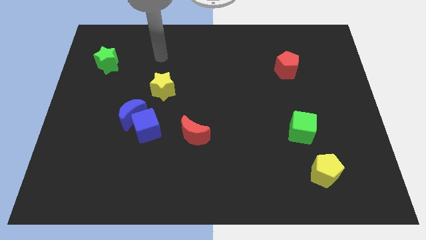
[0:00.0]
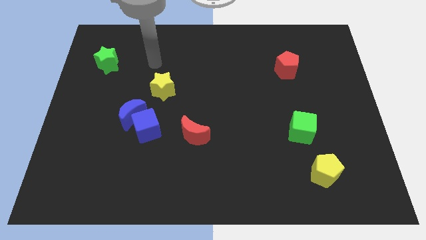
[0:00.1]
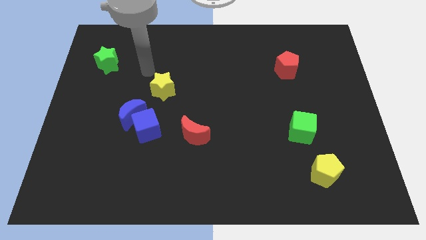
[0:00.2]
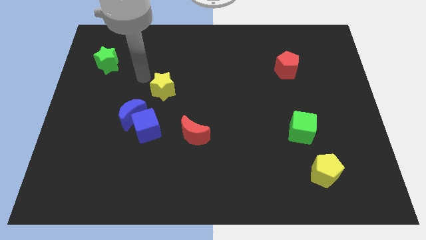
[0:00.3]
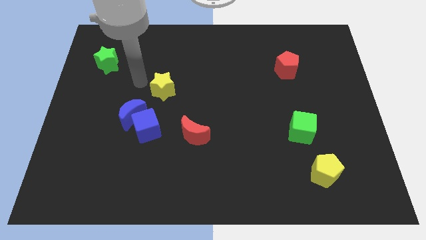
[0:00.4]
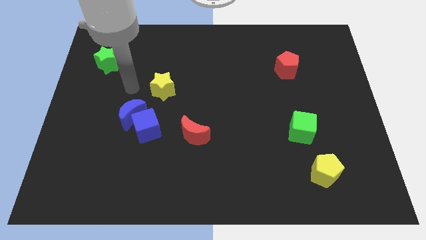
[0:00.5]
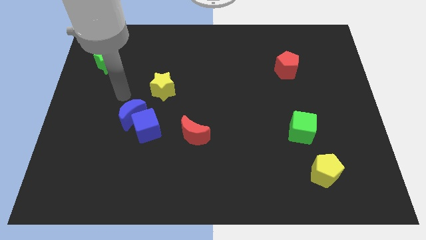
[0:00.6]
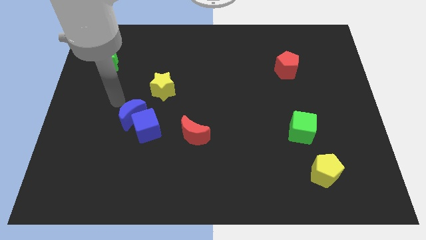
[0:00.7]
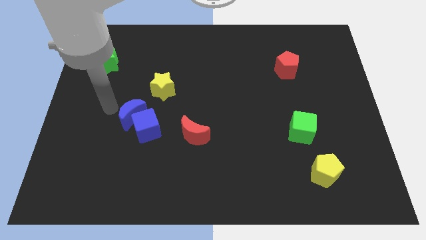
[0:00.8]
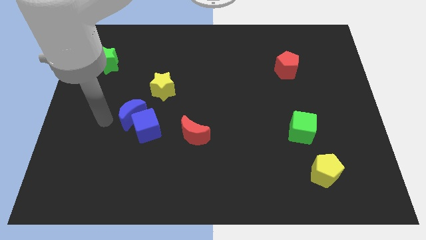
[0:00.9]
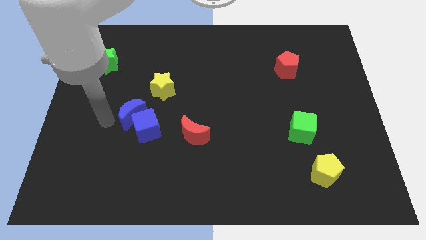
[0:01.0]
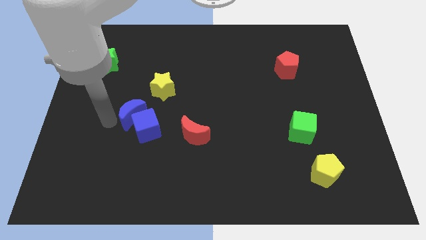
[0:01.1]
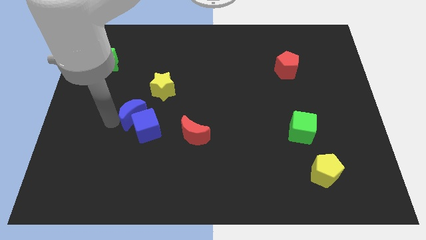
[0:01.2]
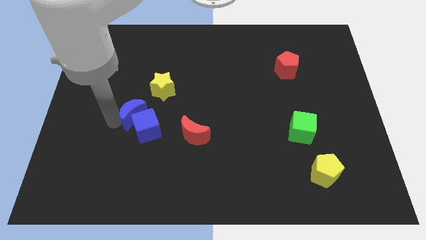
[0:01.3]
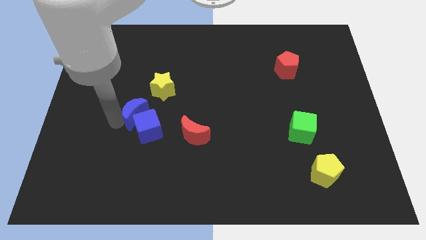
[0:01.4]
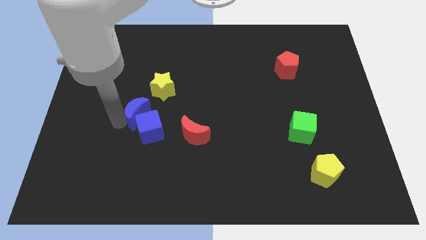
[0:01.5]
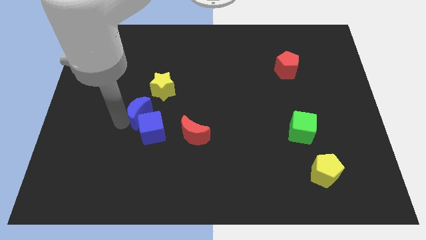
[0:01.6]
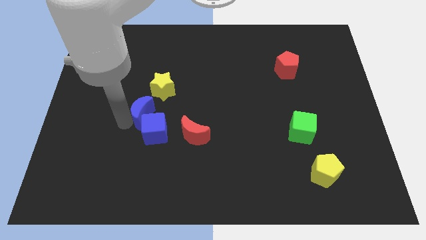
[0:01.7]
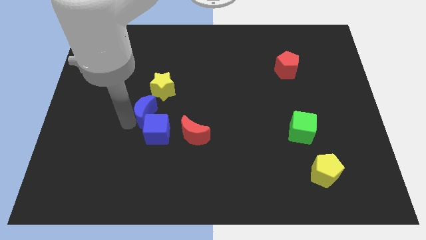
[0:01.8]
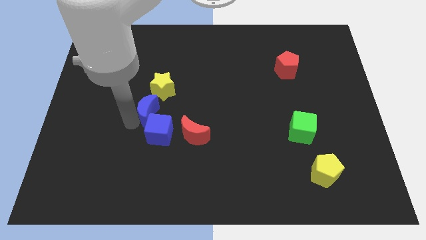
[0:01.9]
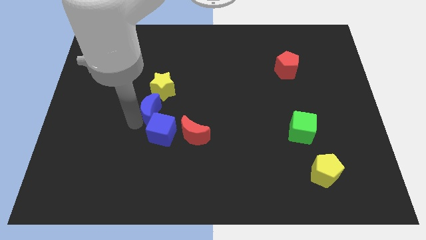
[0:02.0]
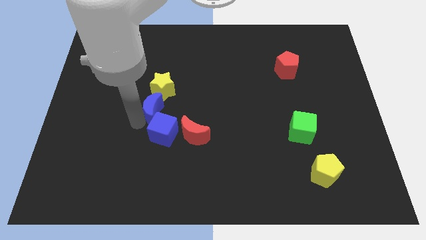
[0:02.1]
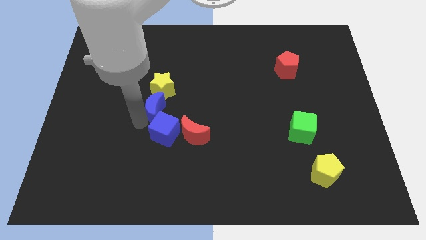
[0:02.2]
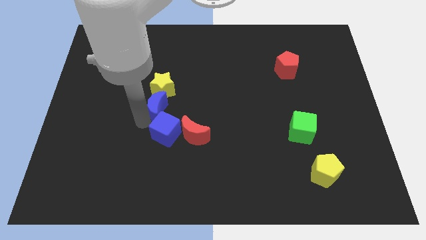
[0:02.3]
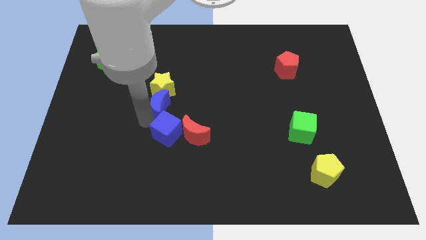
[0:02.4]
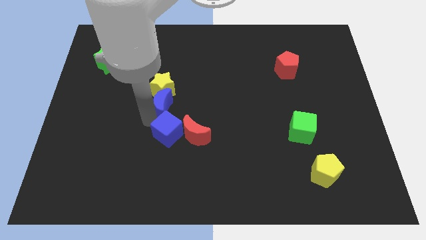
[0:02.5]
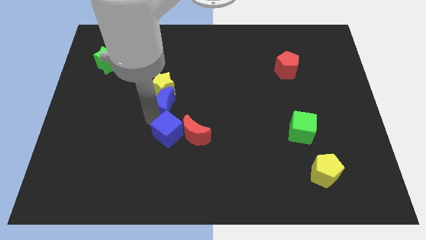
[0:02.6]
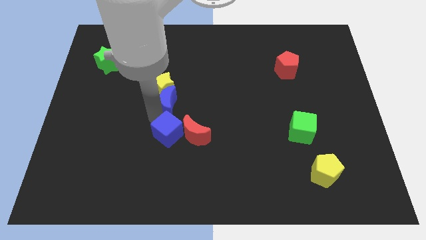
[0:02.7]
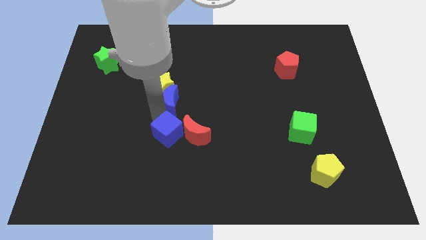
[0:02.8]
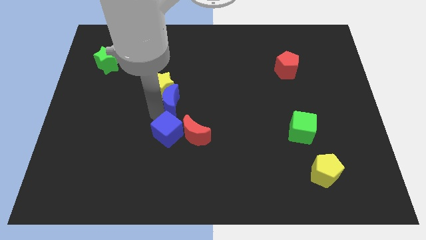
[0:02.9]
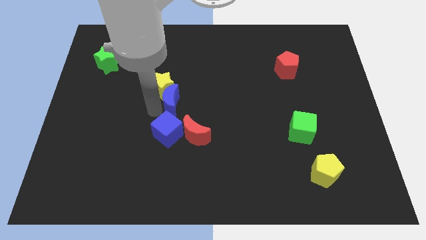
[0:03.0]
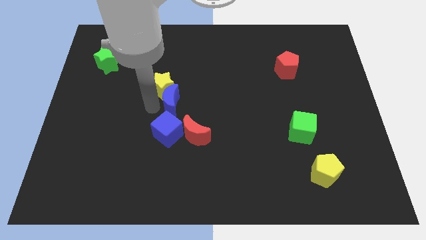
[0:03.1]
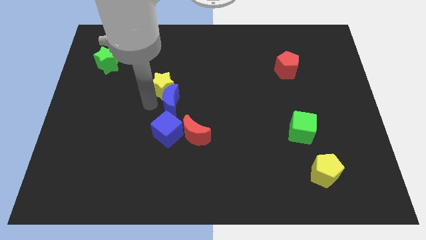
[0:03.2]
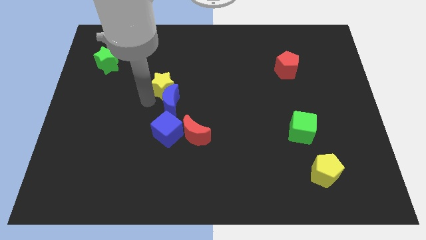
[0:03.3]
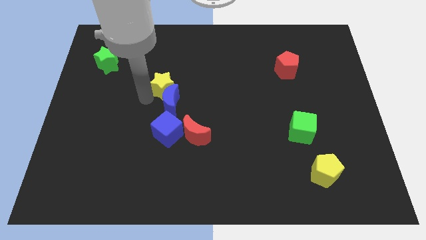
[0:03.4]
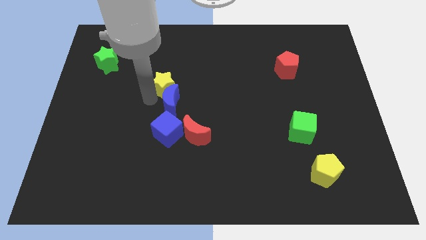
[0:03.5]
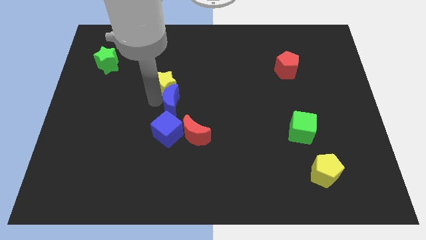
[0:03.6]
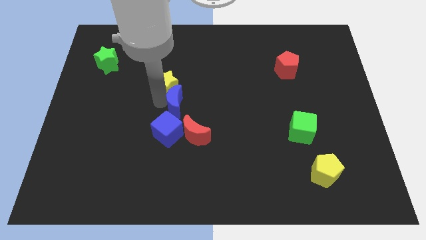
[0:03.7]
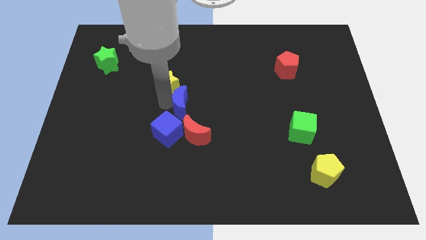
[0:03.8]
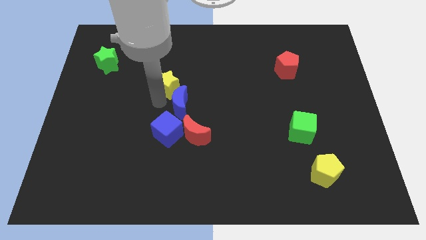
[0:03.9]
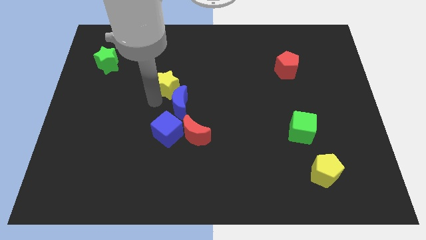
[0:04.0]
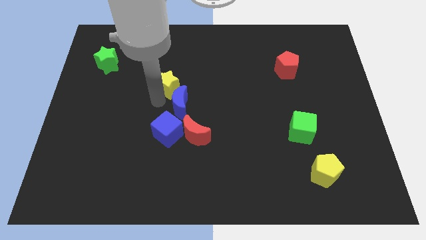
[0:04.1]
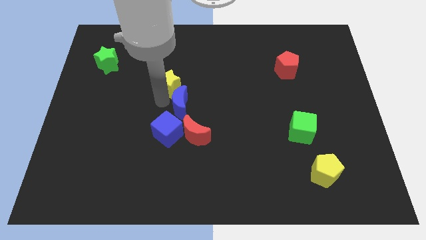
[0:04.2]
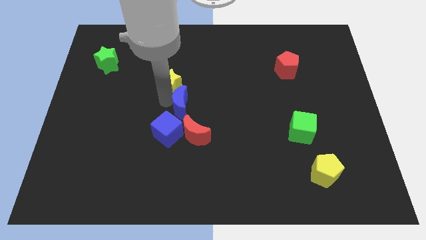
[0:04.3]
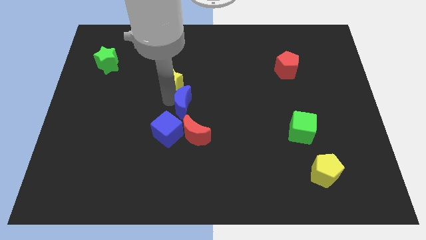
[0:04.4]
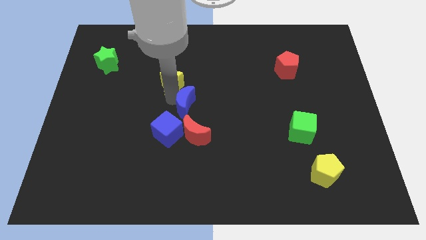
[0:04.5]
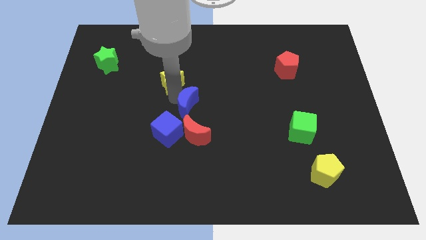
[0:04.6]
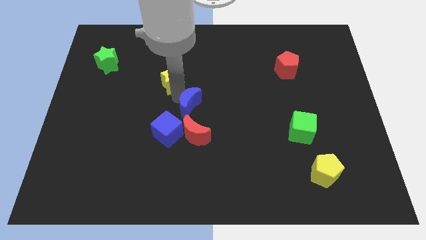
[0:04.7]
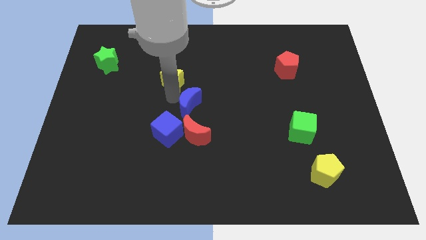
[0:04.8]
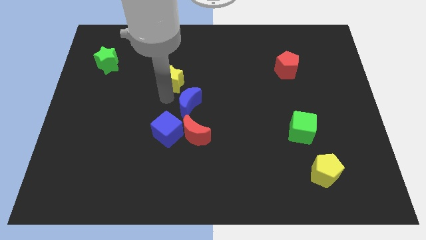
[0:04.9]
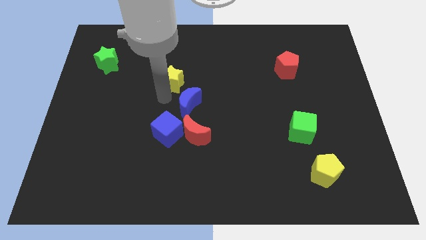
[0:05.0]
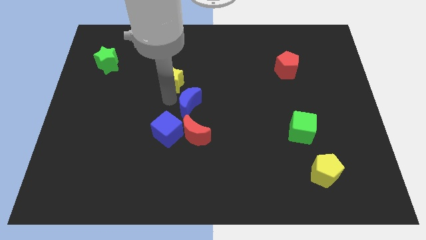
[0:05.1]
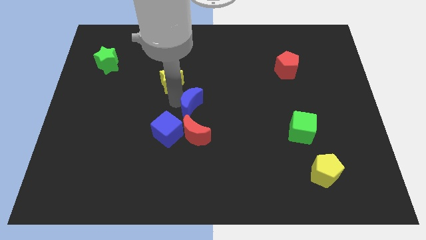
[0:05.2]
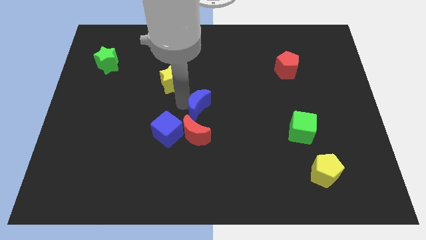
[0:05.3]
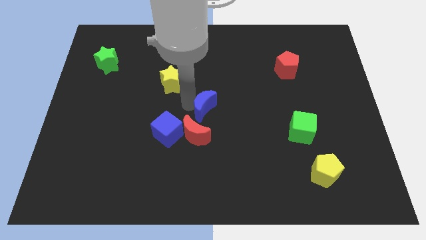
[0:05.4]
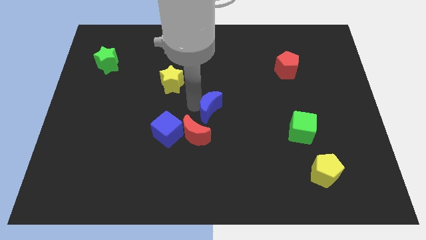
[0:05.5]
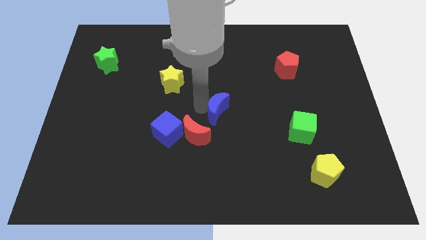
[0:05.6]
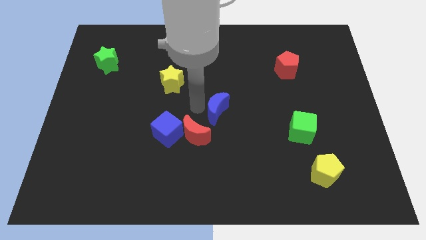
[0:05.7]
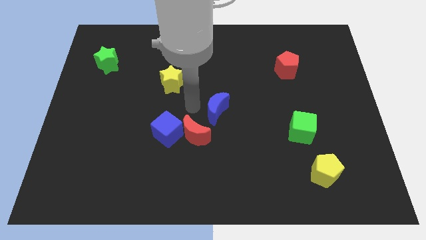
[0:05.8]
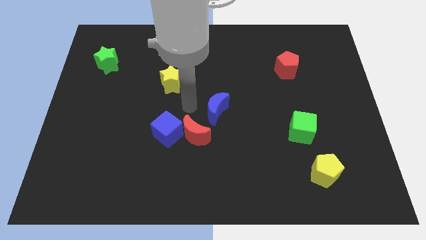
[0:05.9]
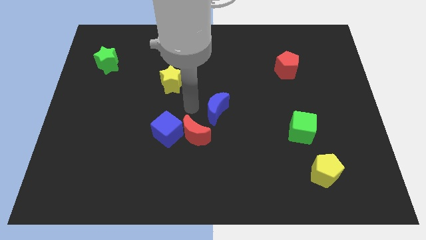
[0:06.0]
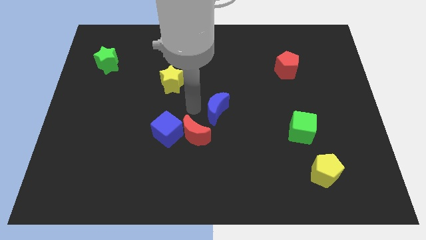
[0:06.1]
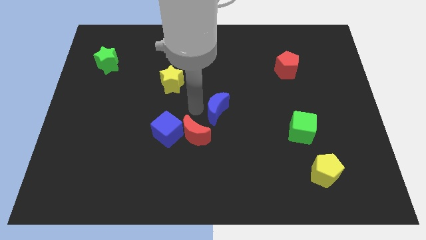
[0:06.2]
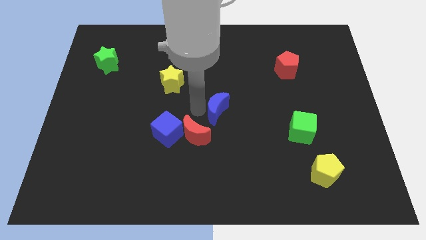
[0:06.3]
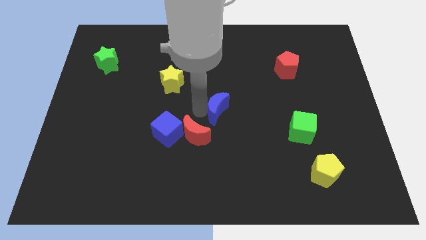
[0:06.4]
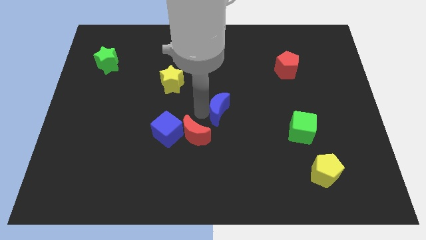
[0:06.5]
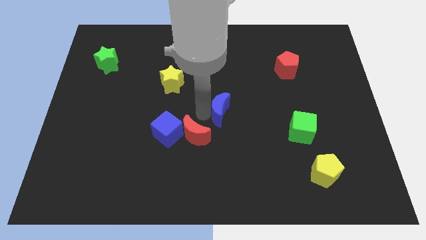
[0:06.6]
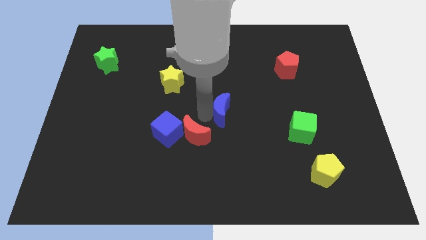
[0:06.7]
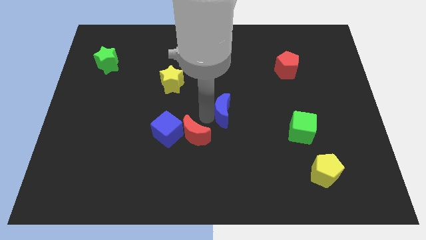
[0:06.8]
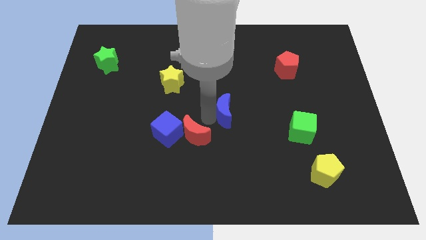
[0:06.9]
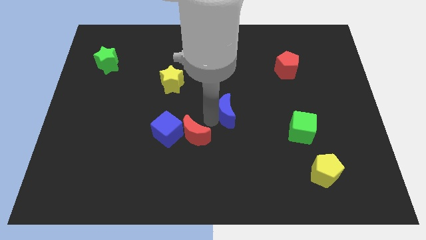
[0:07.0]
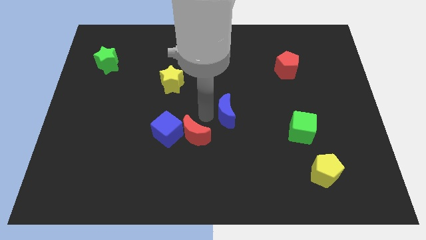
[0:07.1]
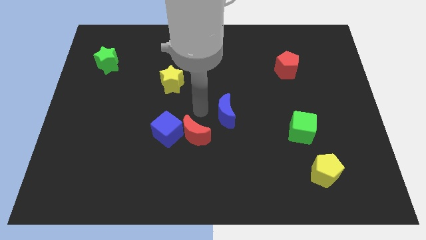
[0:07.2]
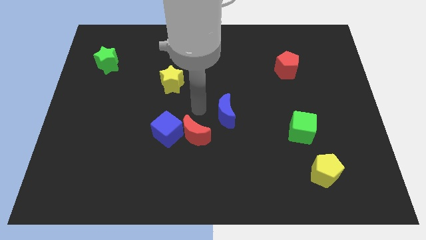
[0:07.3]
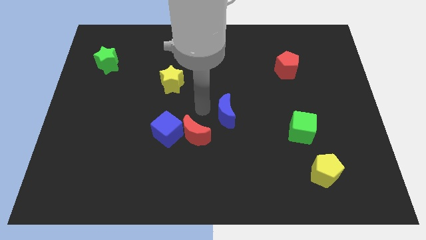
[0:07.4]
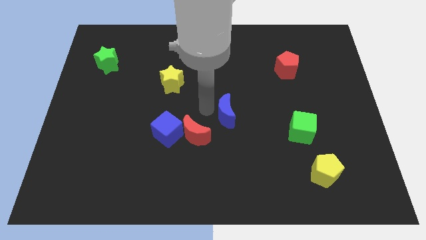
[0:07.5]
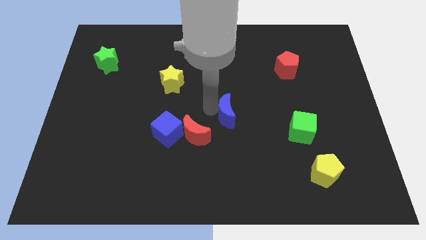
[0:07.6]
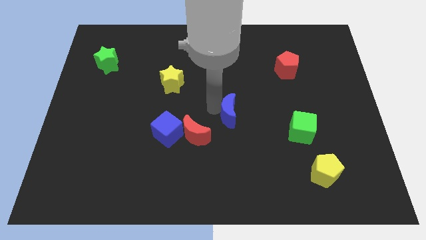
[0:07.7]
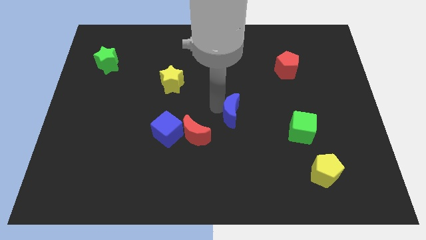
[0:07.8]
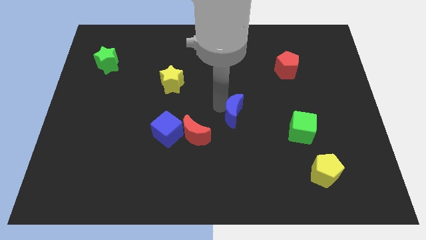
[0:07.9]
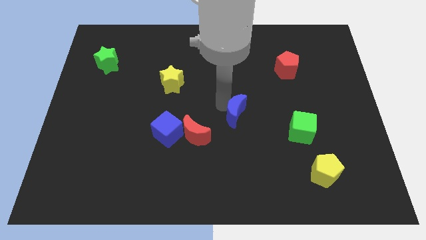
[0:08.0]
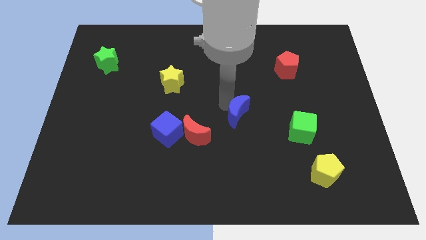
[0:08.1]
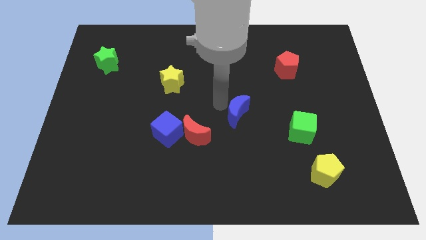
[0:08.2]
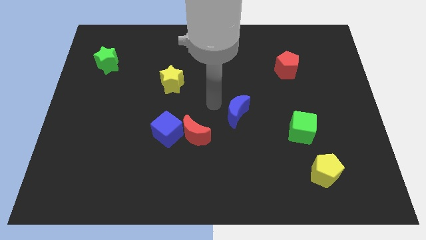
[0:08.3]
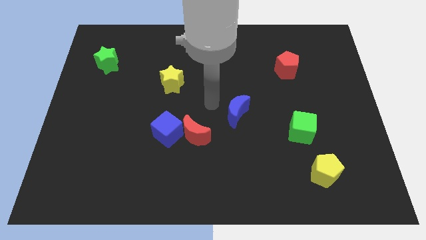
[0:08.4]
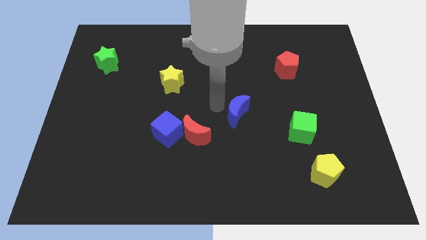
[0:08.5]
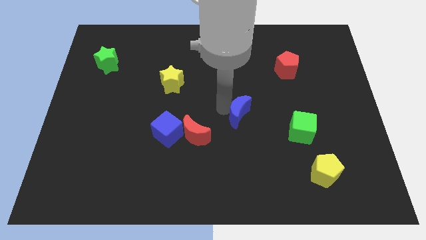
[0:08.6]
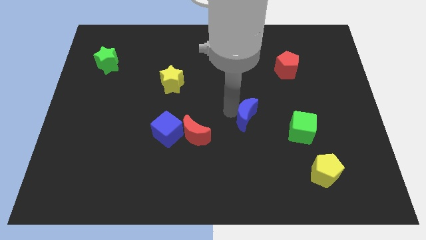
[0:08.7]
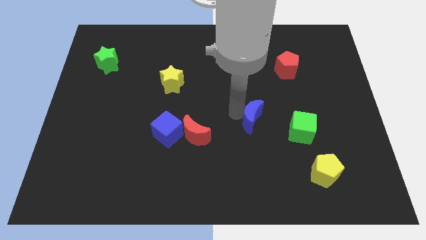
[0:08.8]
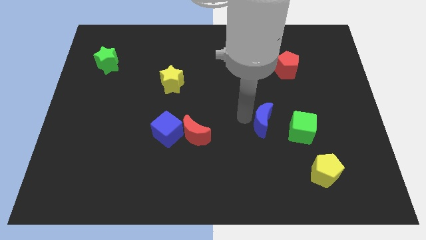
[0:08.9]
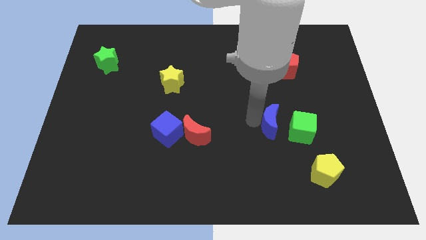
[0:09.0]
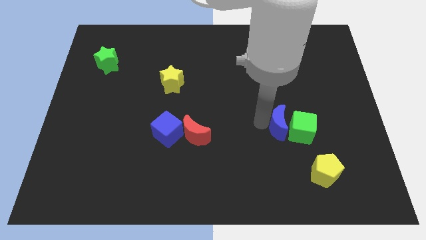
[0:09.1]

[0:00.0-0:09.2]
move the blue moon next to the green cube
